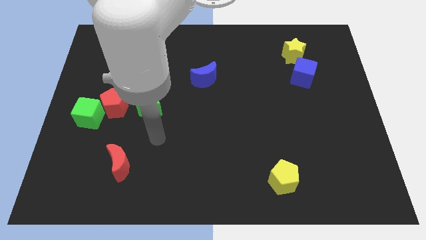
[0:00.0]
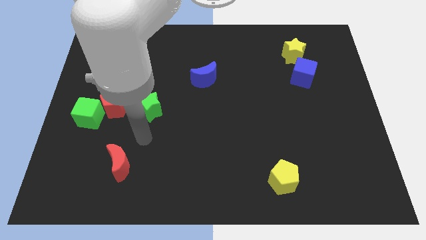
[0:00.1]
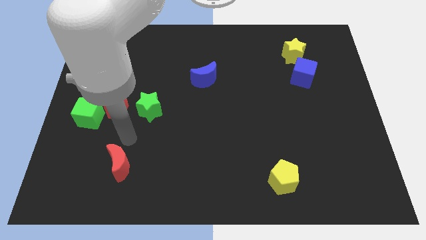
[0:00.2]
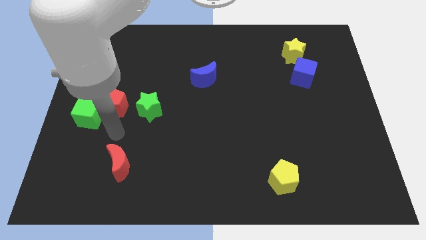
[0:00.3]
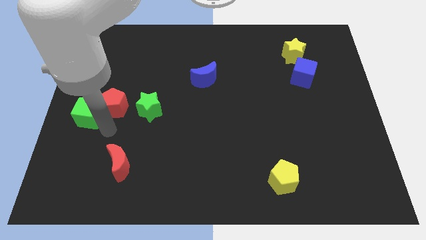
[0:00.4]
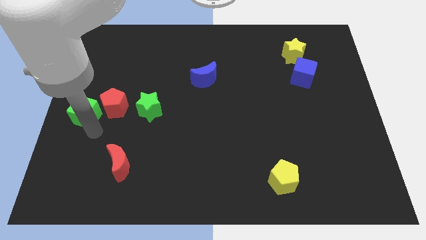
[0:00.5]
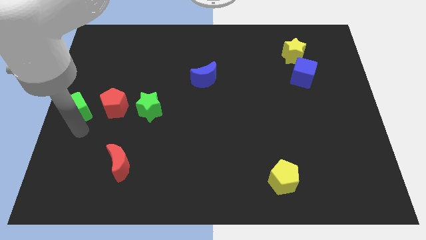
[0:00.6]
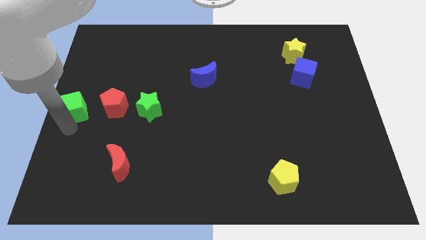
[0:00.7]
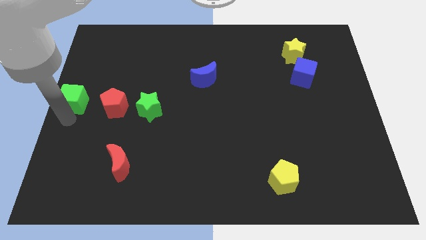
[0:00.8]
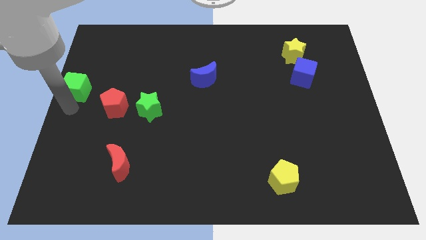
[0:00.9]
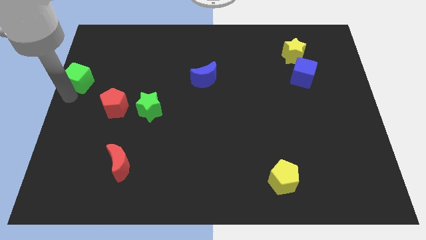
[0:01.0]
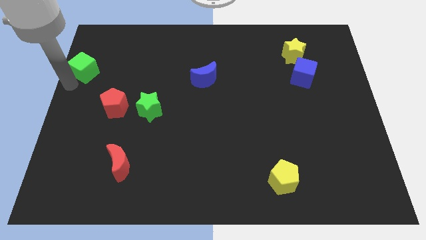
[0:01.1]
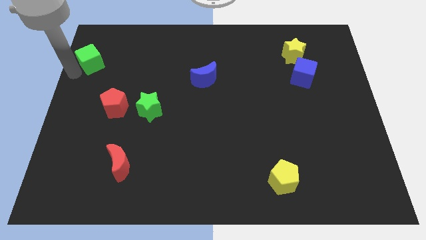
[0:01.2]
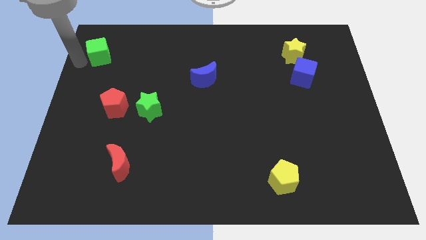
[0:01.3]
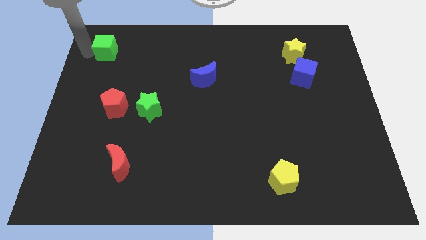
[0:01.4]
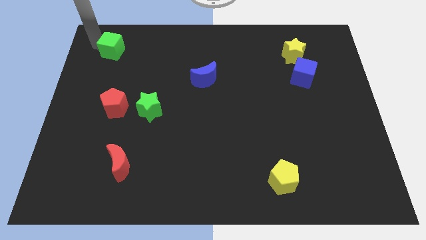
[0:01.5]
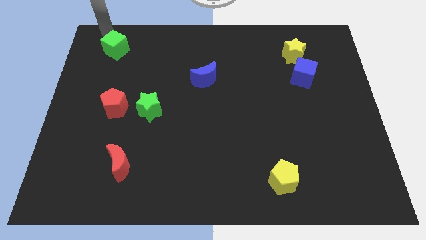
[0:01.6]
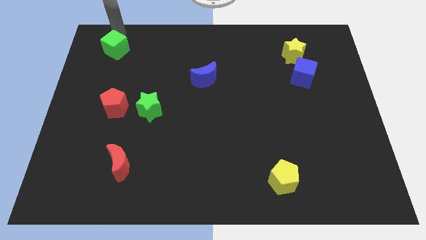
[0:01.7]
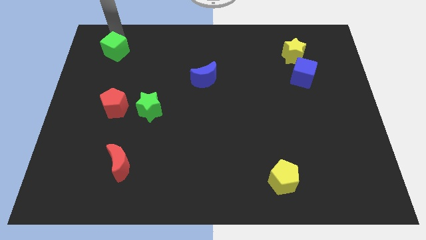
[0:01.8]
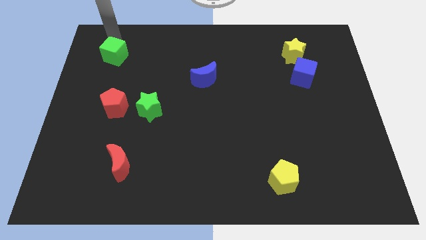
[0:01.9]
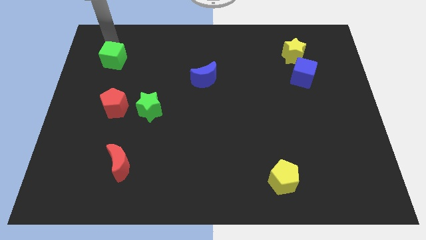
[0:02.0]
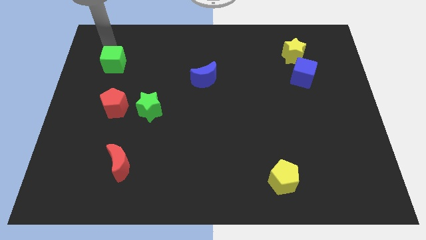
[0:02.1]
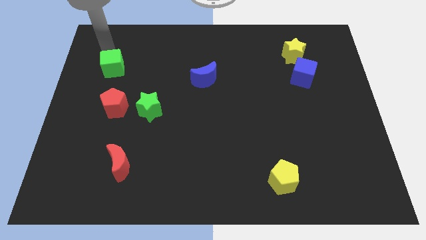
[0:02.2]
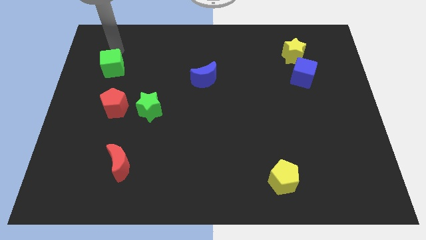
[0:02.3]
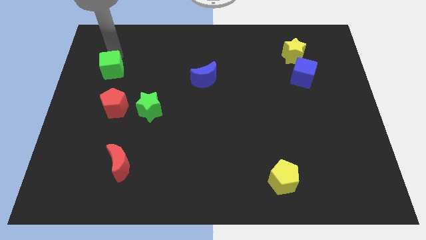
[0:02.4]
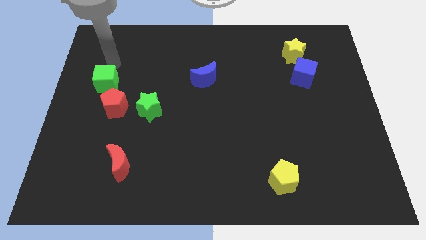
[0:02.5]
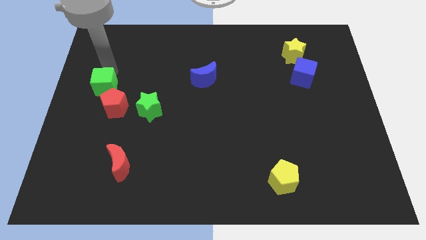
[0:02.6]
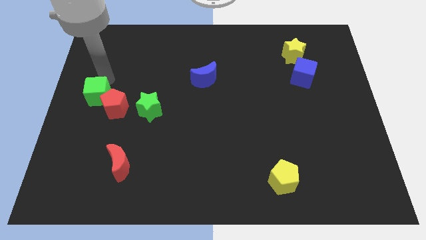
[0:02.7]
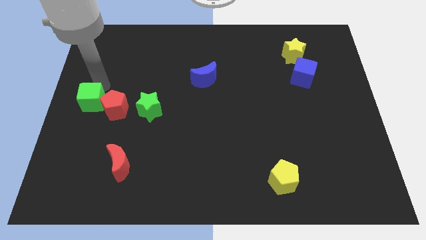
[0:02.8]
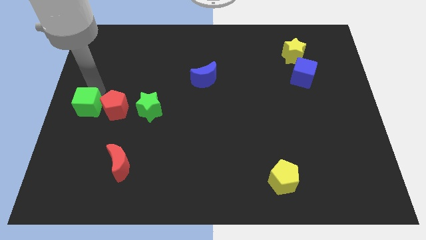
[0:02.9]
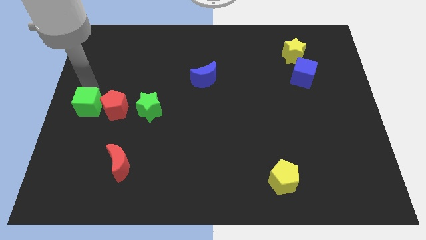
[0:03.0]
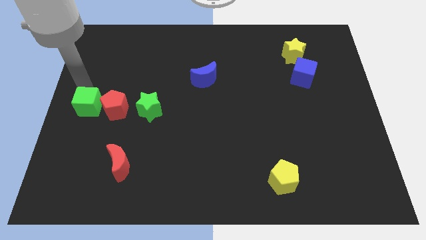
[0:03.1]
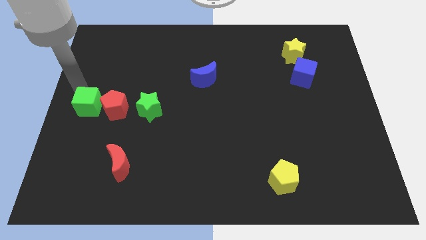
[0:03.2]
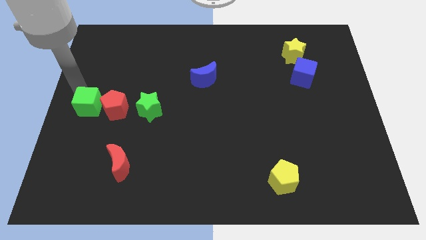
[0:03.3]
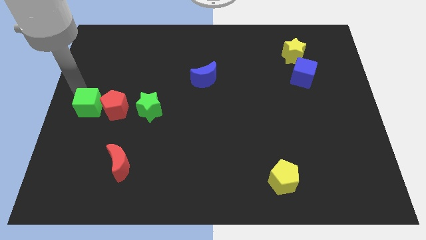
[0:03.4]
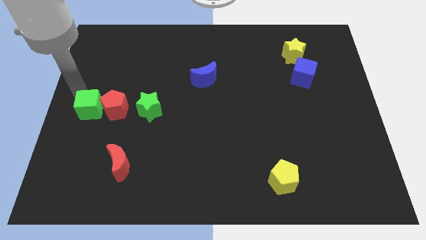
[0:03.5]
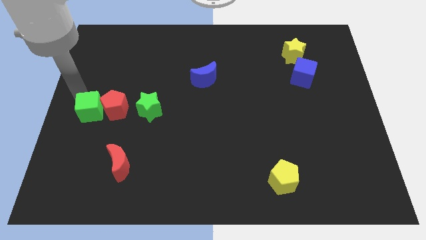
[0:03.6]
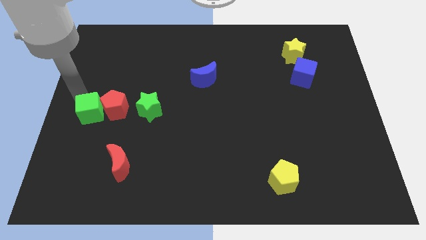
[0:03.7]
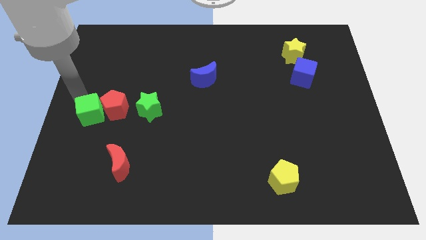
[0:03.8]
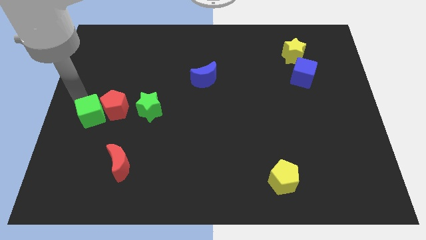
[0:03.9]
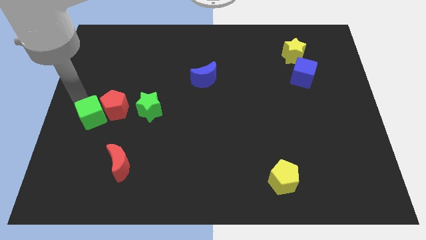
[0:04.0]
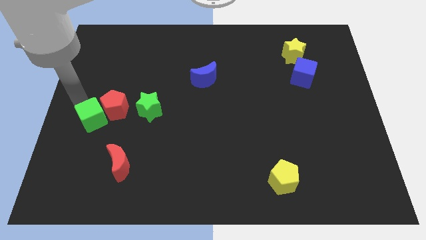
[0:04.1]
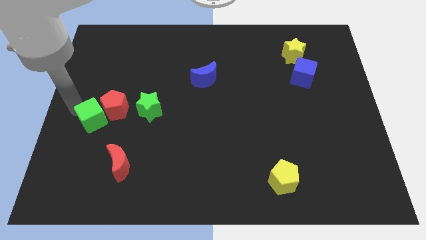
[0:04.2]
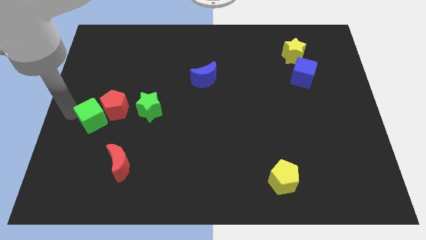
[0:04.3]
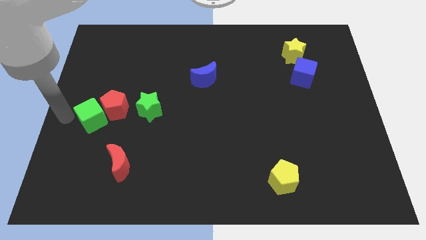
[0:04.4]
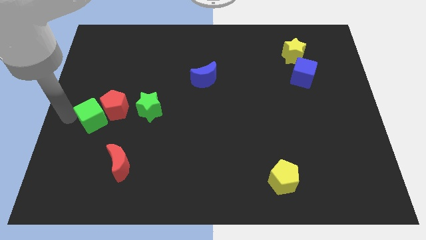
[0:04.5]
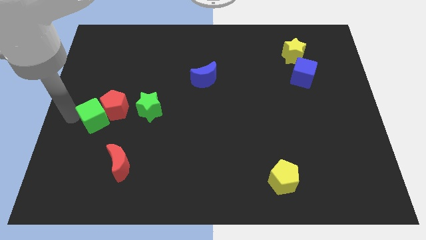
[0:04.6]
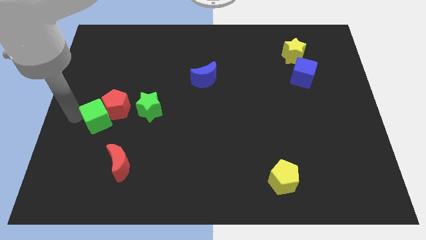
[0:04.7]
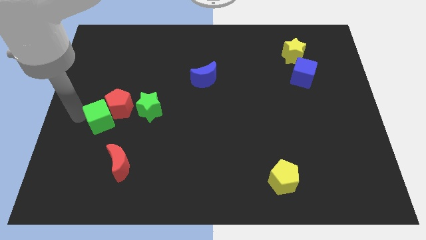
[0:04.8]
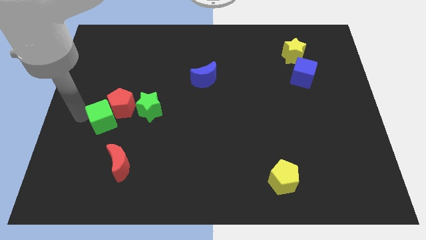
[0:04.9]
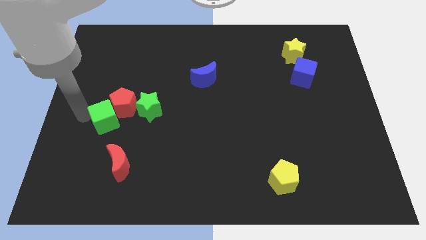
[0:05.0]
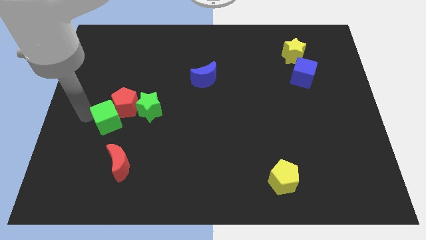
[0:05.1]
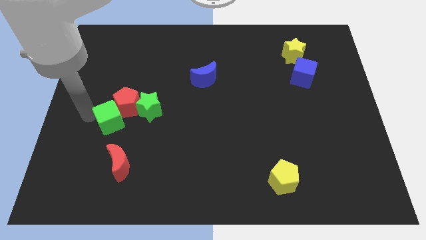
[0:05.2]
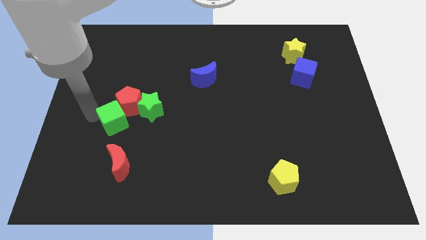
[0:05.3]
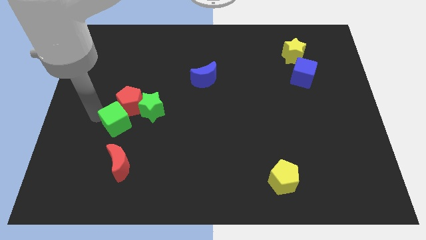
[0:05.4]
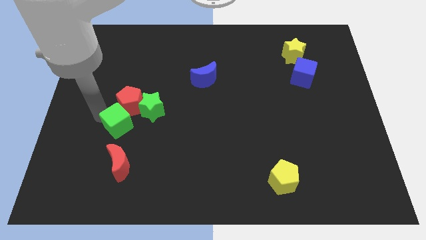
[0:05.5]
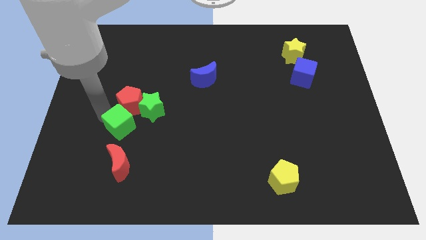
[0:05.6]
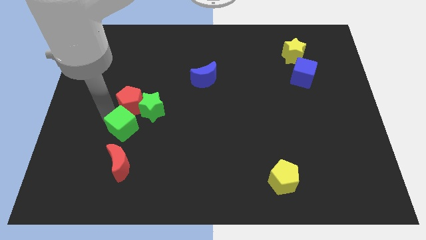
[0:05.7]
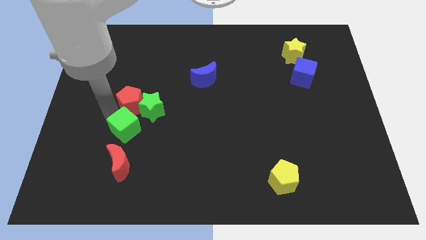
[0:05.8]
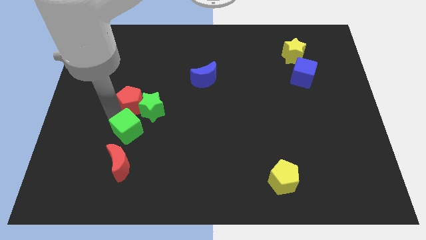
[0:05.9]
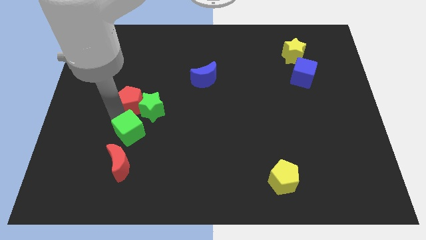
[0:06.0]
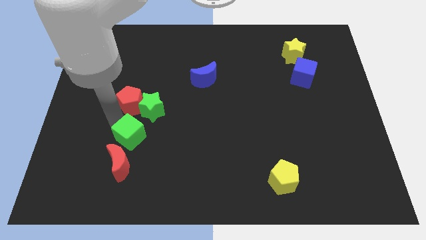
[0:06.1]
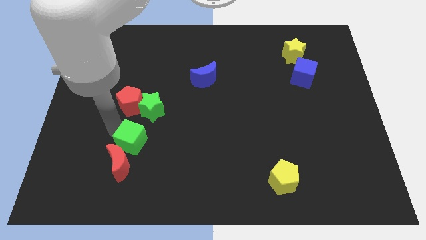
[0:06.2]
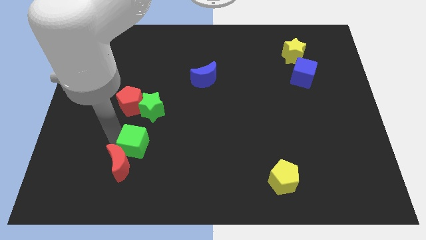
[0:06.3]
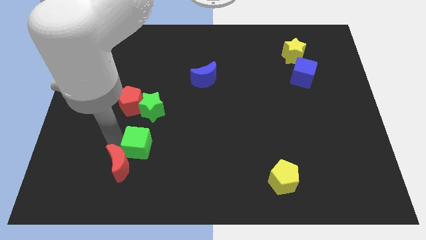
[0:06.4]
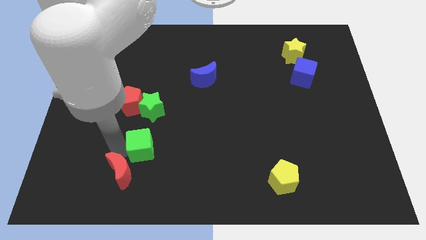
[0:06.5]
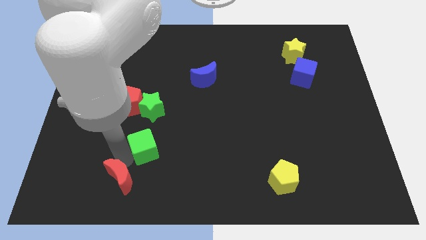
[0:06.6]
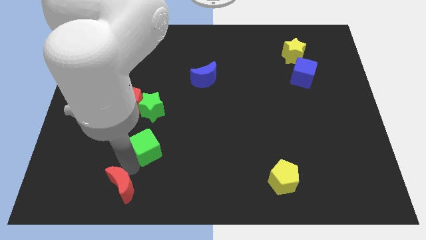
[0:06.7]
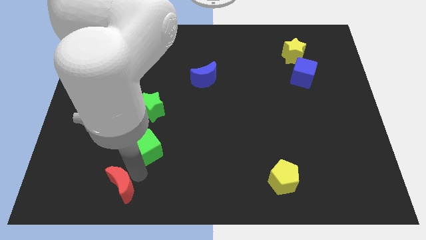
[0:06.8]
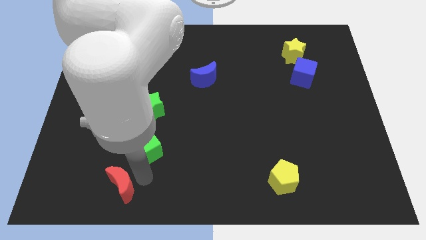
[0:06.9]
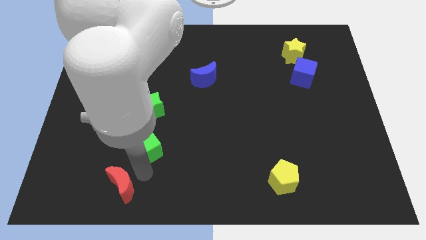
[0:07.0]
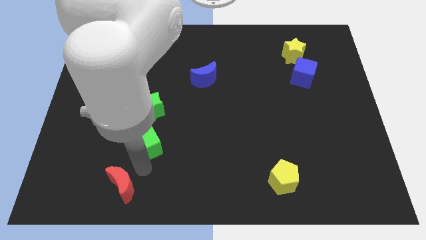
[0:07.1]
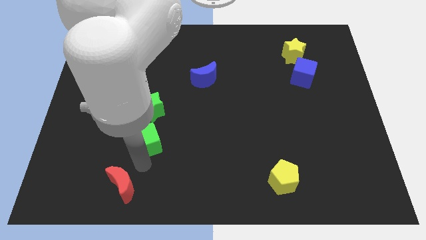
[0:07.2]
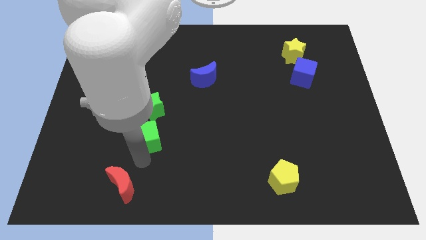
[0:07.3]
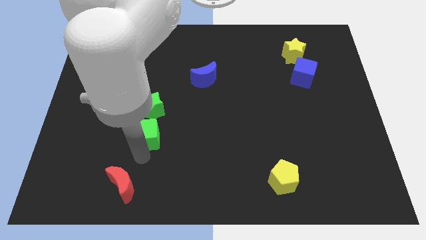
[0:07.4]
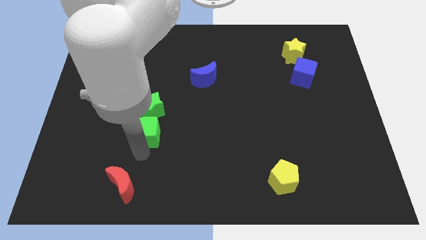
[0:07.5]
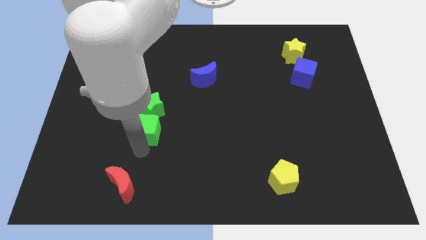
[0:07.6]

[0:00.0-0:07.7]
slide the green cube towards the green star
